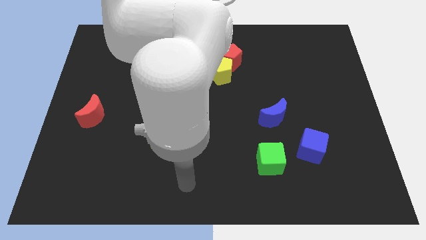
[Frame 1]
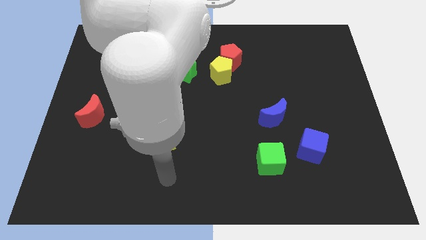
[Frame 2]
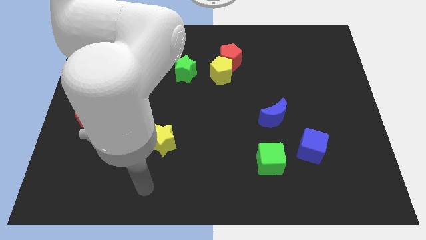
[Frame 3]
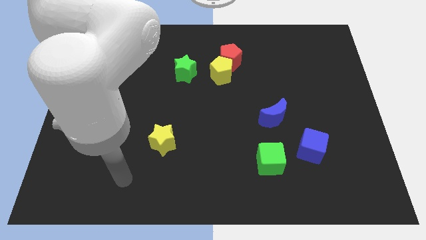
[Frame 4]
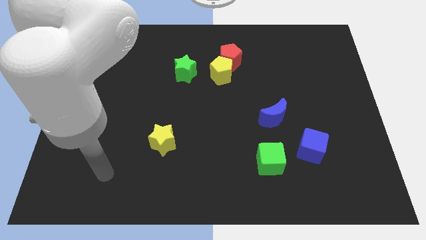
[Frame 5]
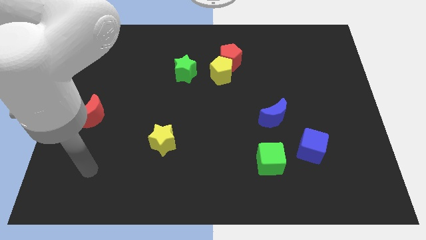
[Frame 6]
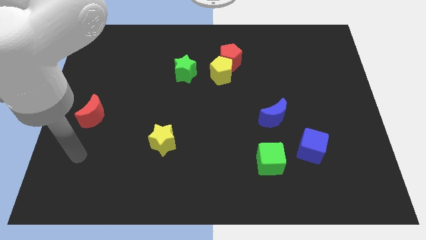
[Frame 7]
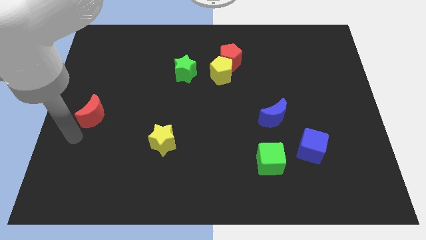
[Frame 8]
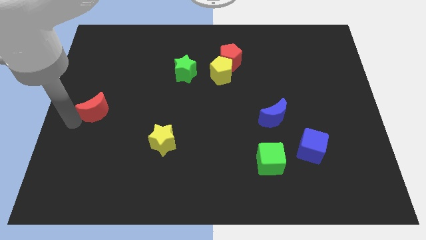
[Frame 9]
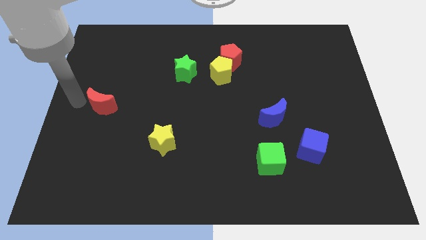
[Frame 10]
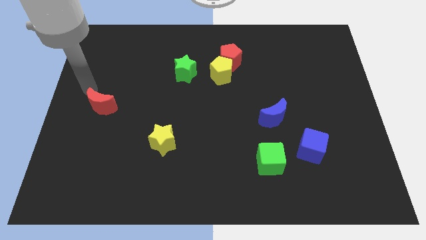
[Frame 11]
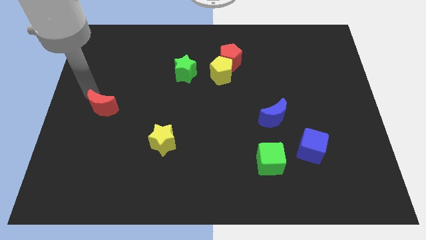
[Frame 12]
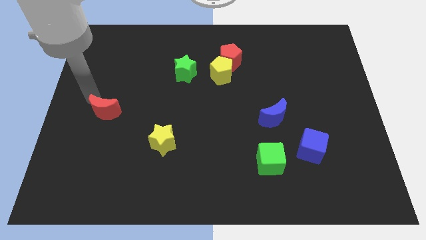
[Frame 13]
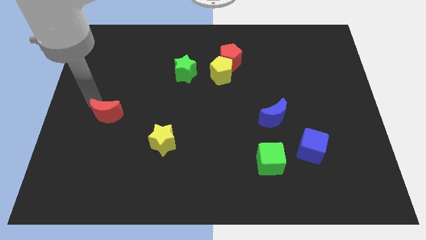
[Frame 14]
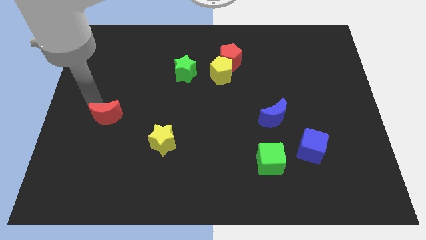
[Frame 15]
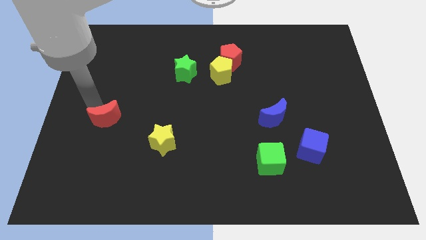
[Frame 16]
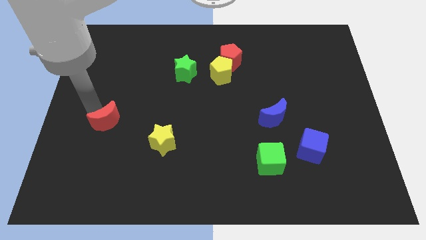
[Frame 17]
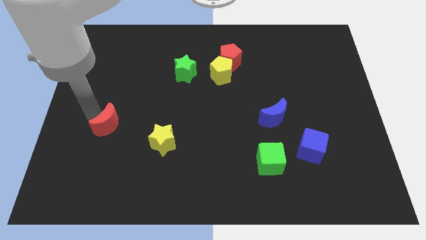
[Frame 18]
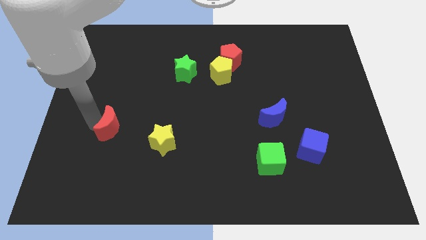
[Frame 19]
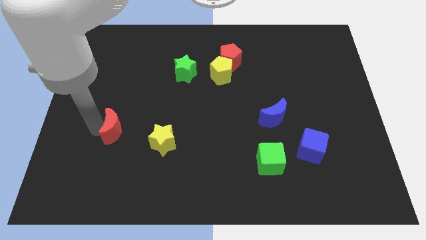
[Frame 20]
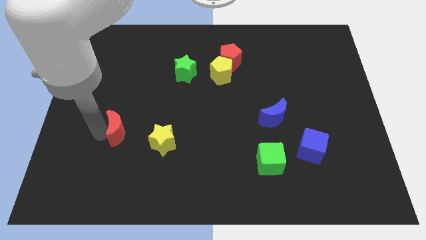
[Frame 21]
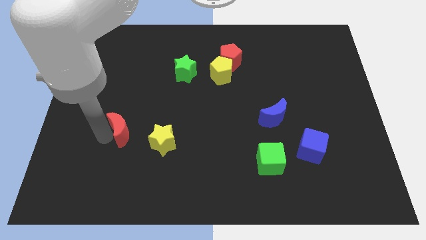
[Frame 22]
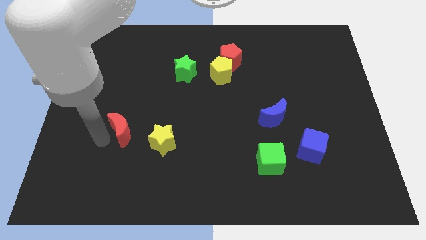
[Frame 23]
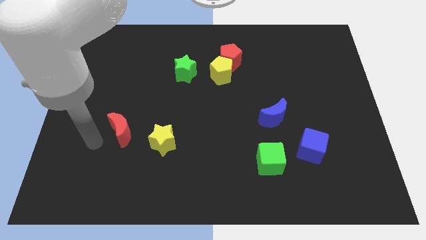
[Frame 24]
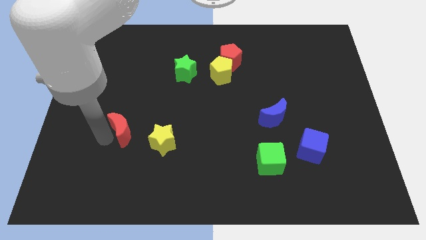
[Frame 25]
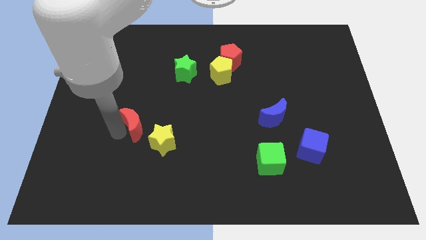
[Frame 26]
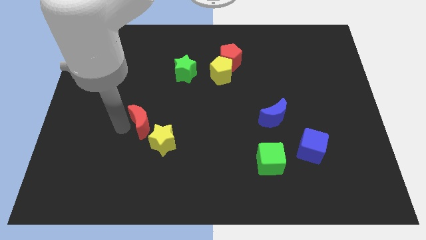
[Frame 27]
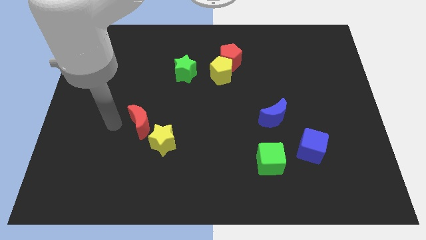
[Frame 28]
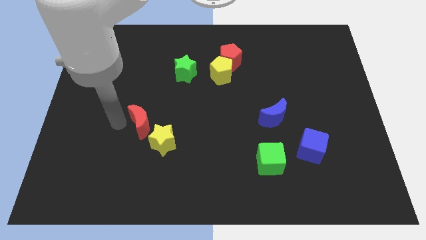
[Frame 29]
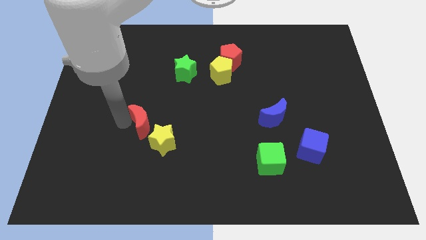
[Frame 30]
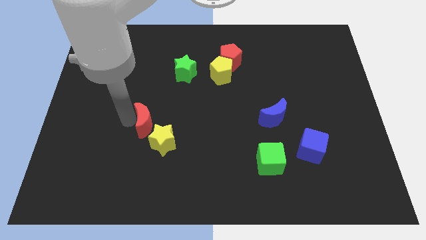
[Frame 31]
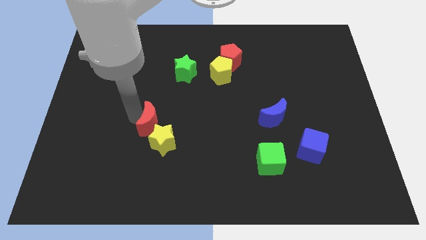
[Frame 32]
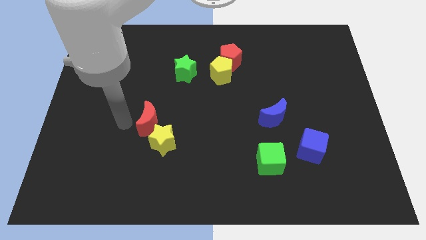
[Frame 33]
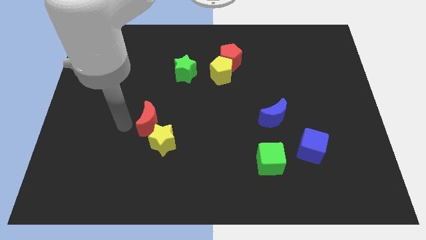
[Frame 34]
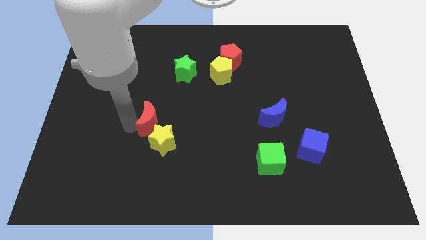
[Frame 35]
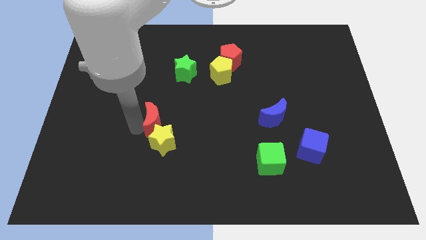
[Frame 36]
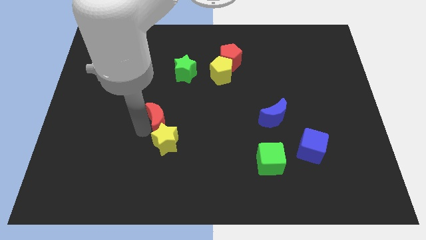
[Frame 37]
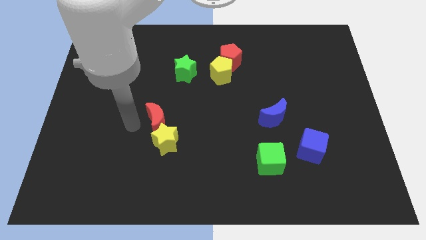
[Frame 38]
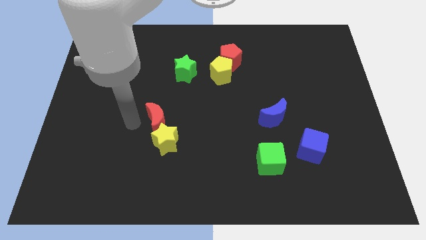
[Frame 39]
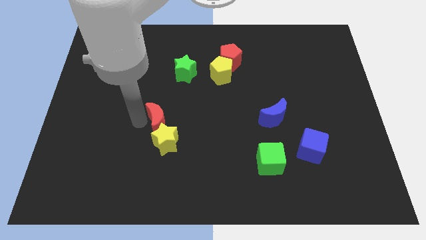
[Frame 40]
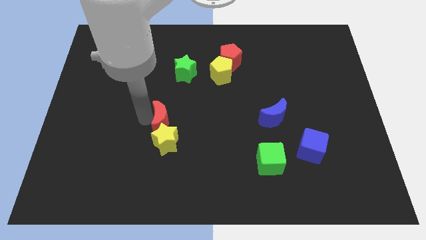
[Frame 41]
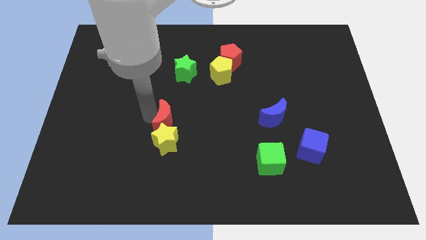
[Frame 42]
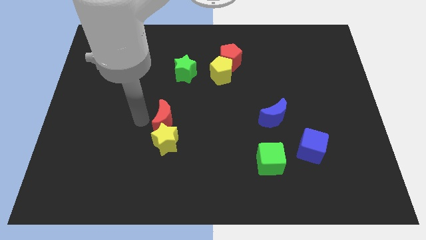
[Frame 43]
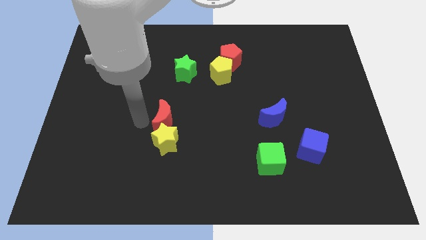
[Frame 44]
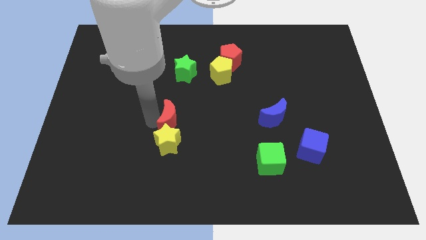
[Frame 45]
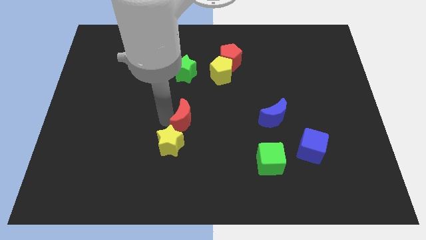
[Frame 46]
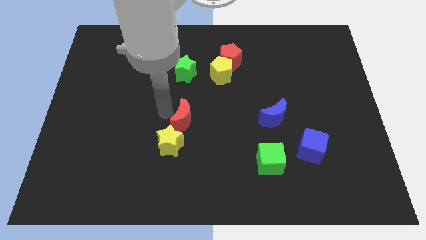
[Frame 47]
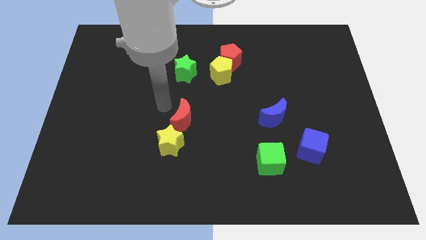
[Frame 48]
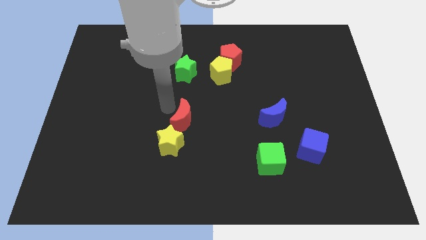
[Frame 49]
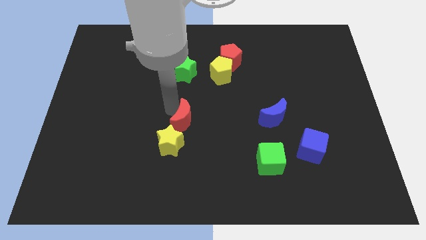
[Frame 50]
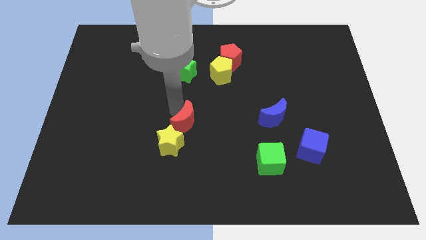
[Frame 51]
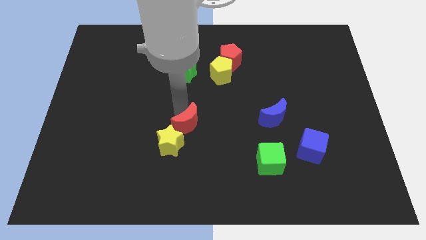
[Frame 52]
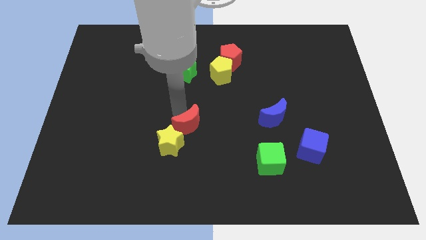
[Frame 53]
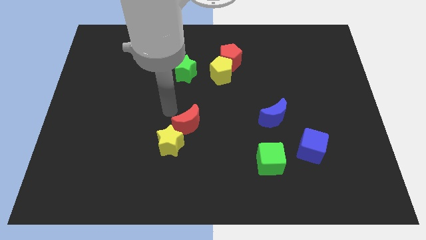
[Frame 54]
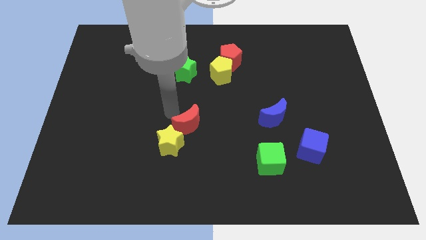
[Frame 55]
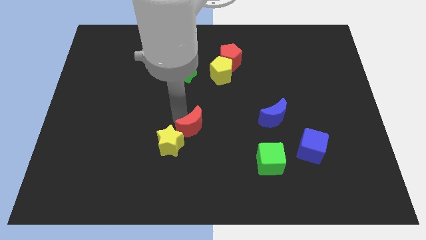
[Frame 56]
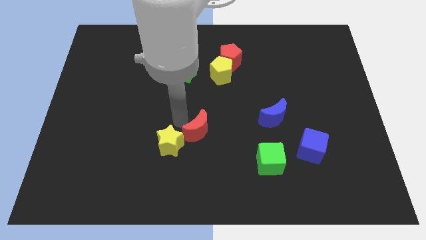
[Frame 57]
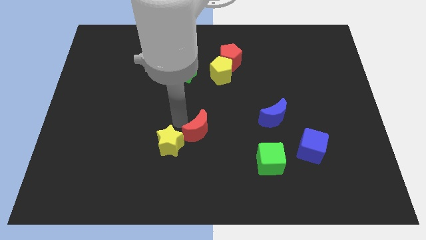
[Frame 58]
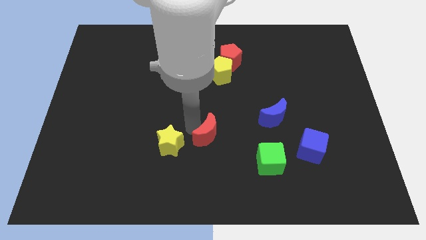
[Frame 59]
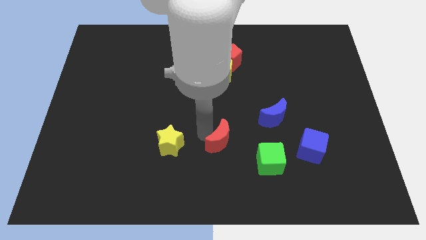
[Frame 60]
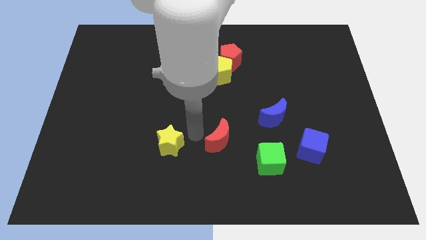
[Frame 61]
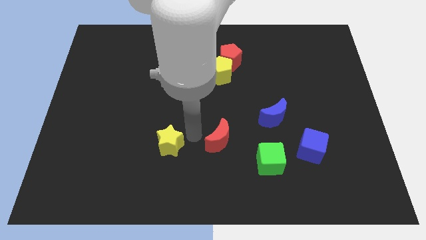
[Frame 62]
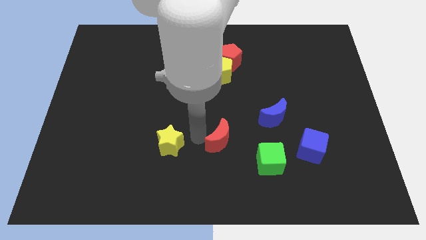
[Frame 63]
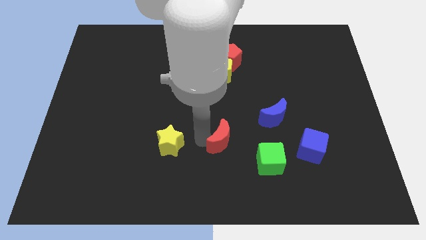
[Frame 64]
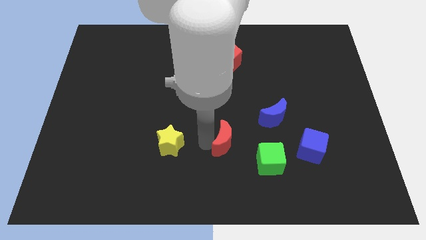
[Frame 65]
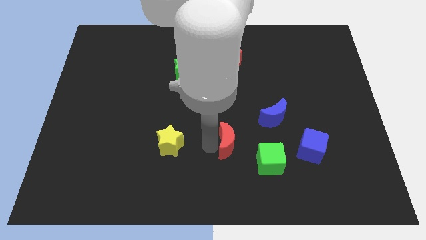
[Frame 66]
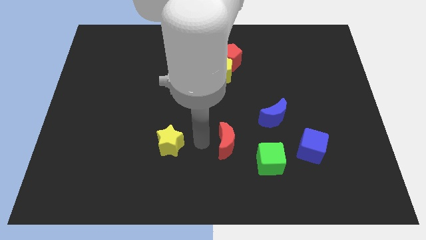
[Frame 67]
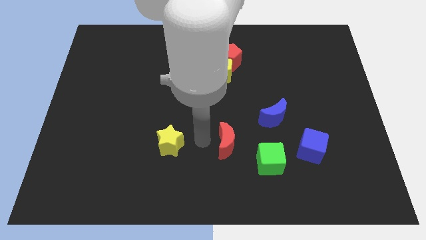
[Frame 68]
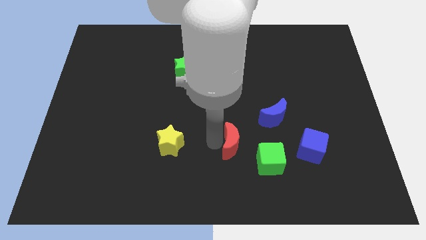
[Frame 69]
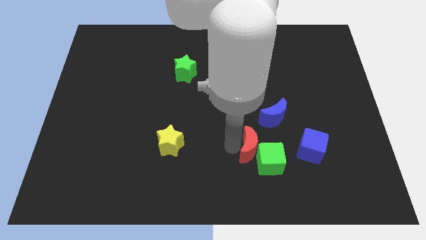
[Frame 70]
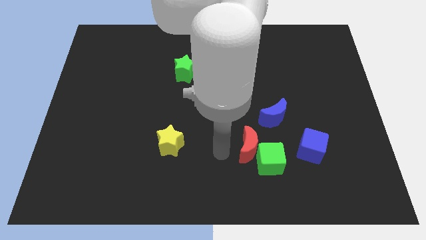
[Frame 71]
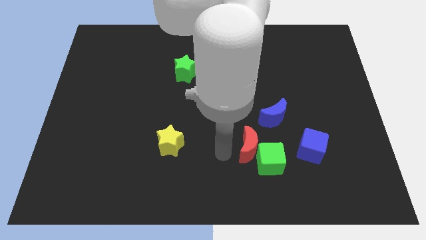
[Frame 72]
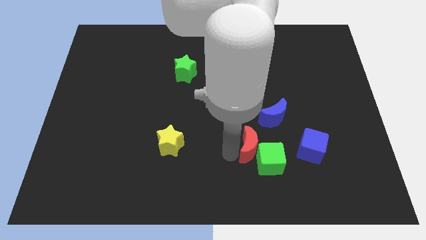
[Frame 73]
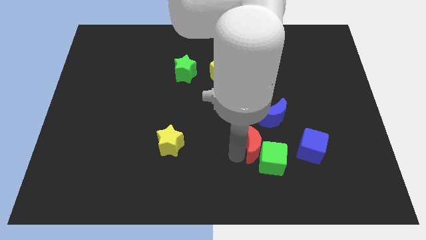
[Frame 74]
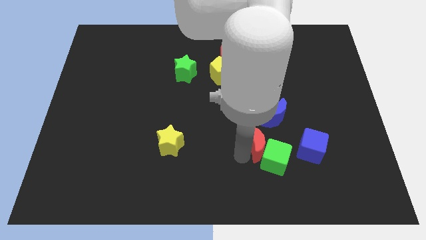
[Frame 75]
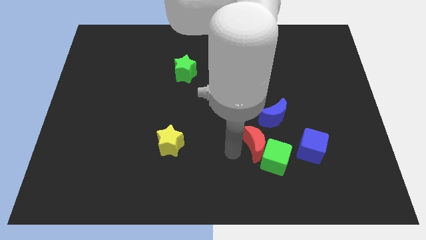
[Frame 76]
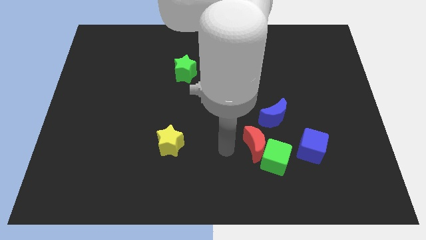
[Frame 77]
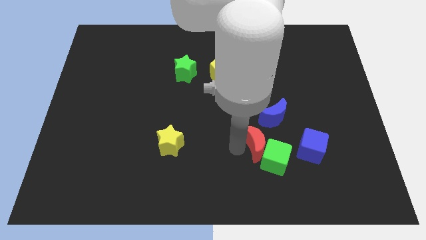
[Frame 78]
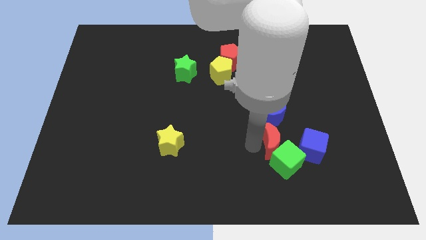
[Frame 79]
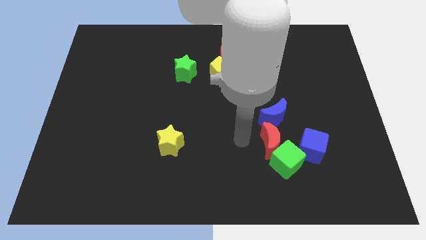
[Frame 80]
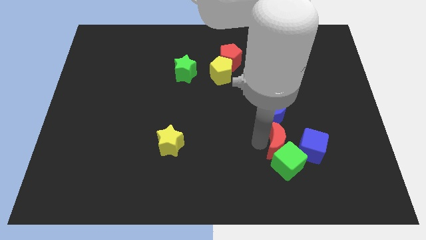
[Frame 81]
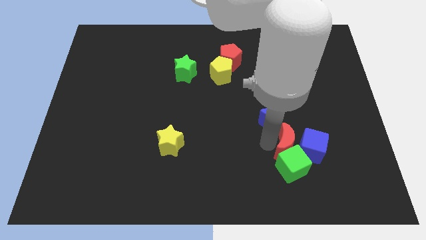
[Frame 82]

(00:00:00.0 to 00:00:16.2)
move the red moon towards the blue cube

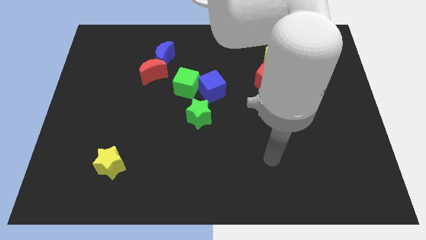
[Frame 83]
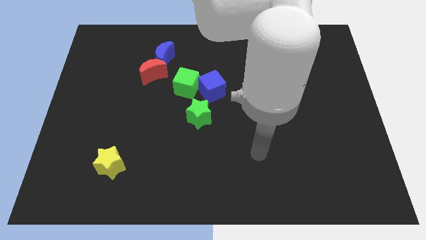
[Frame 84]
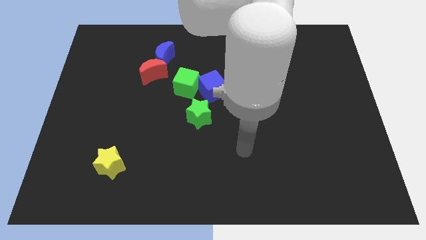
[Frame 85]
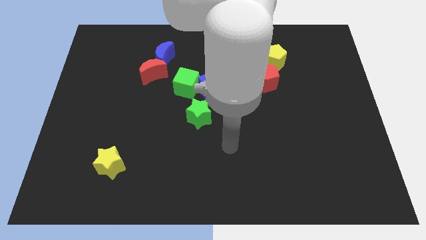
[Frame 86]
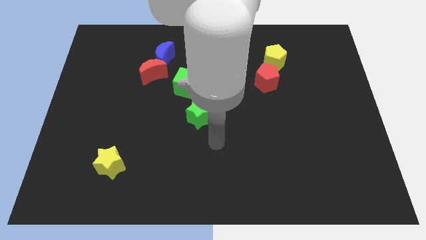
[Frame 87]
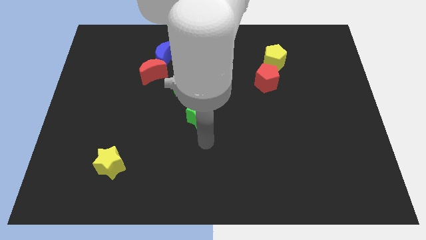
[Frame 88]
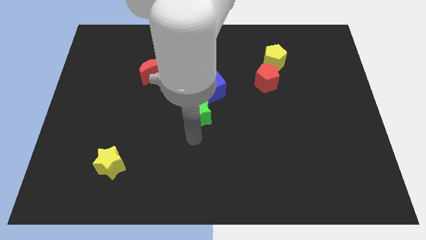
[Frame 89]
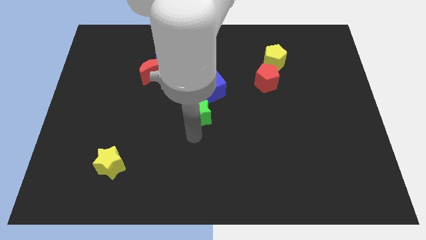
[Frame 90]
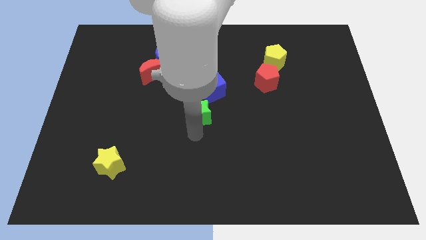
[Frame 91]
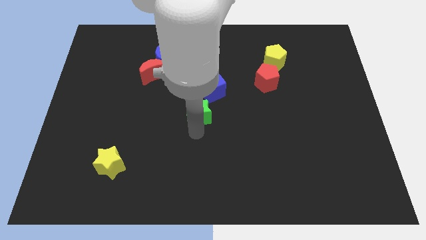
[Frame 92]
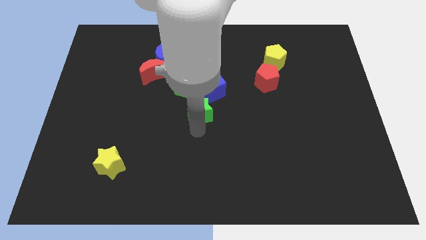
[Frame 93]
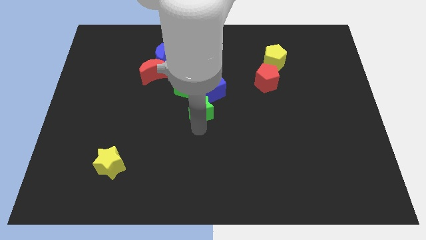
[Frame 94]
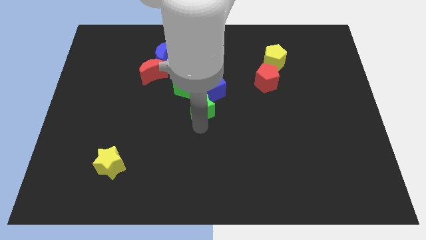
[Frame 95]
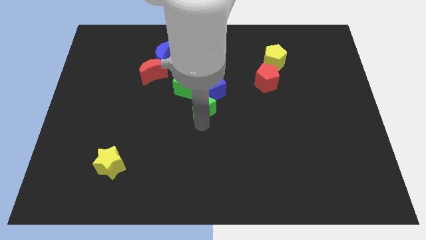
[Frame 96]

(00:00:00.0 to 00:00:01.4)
slide the green star next to the blue cube
